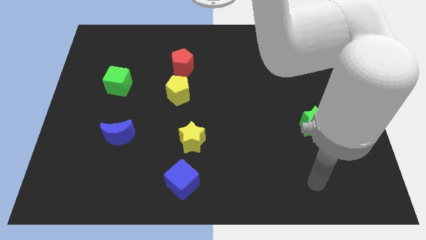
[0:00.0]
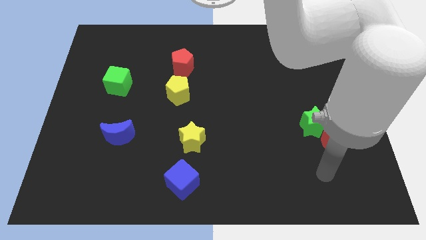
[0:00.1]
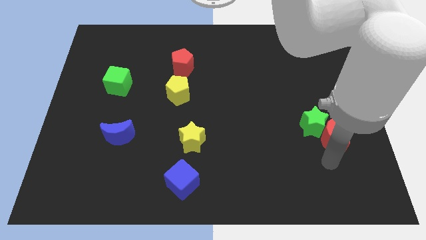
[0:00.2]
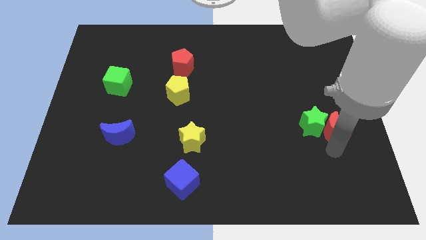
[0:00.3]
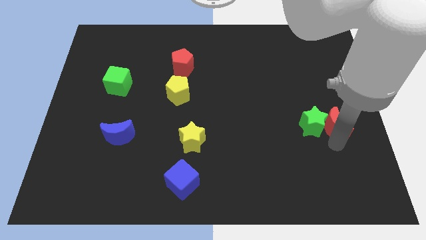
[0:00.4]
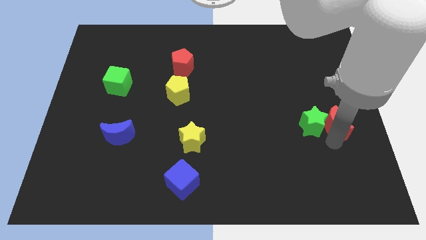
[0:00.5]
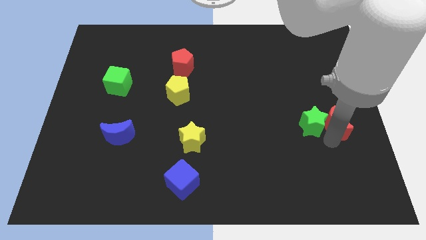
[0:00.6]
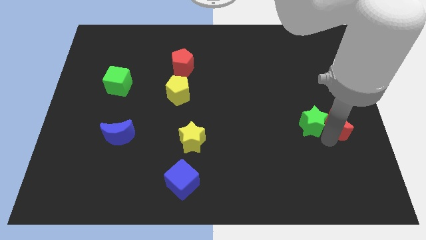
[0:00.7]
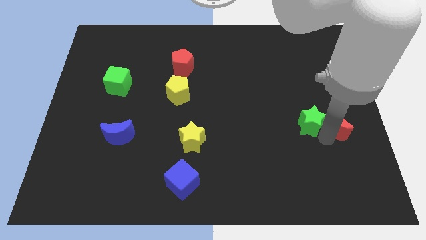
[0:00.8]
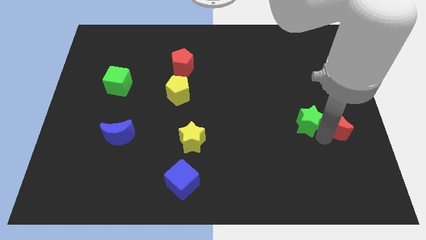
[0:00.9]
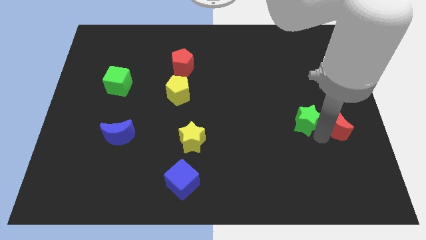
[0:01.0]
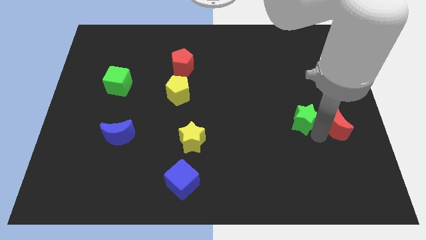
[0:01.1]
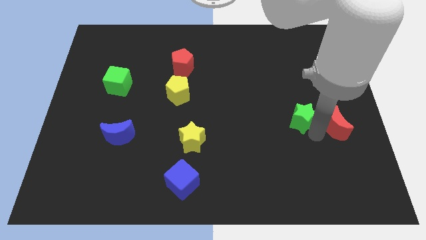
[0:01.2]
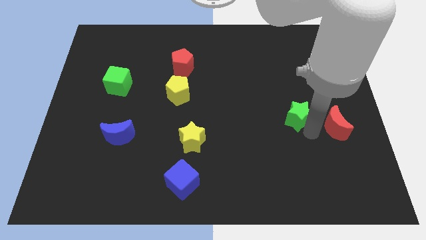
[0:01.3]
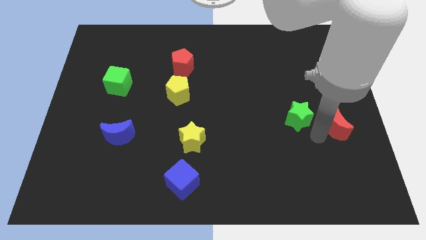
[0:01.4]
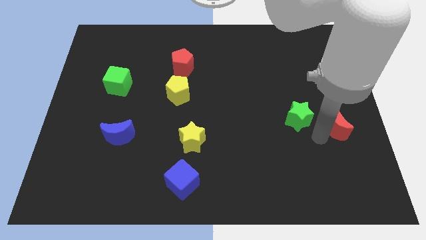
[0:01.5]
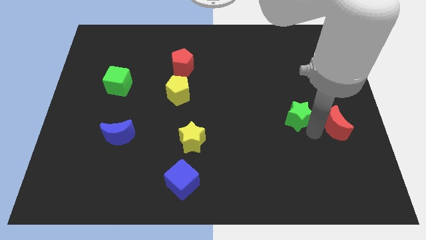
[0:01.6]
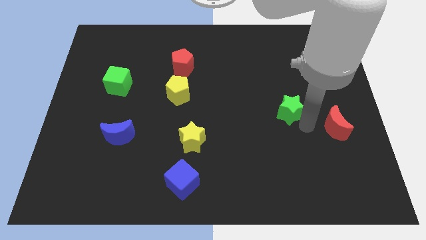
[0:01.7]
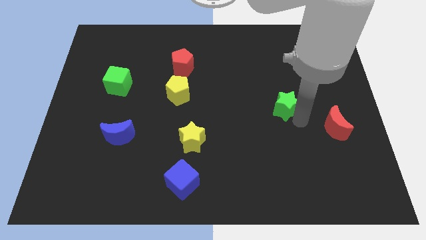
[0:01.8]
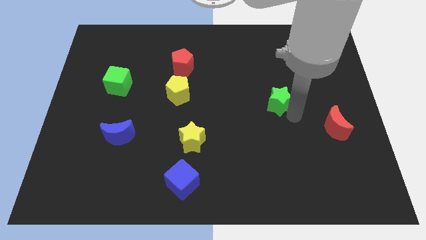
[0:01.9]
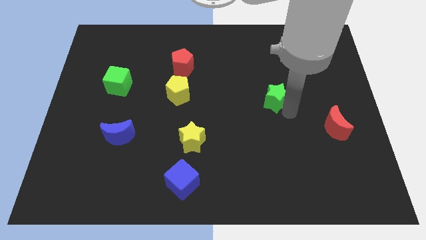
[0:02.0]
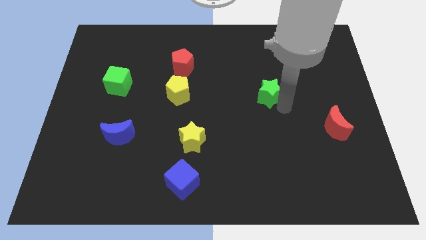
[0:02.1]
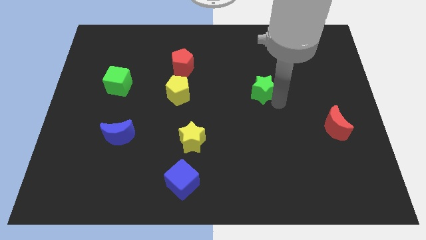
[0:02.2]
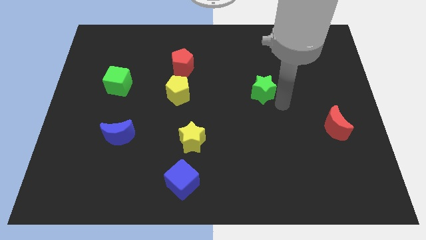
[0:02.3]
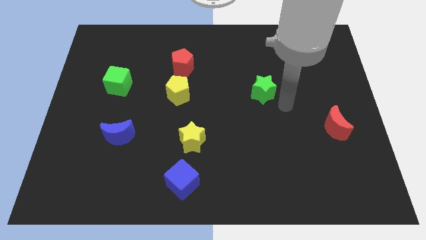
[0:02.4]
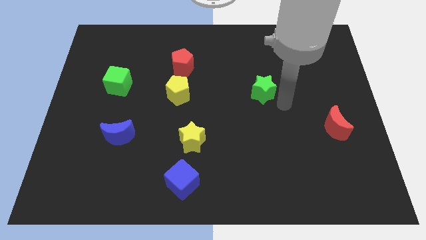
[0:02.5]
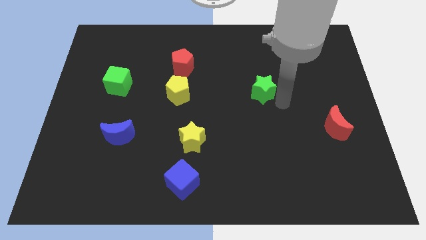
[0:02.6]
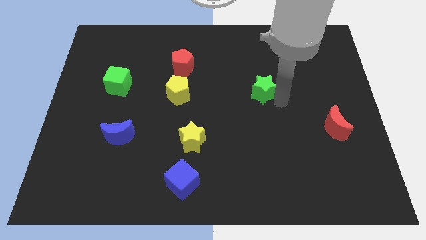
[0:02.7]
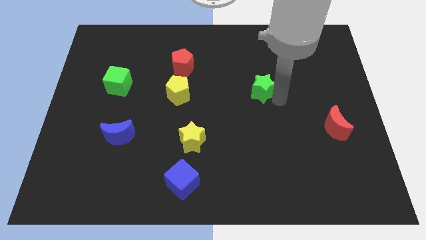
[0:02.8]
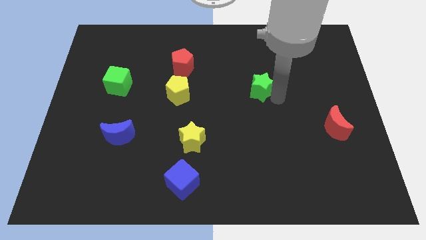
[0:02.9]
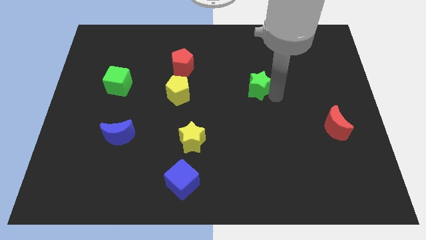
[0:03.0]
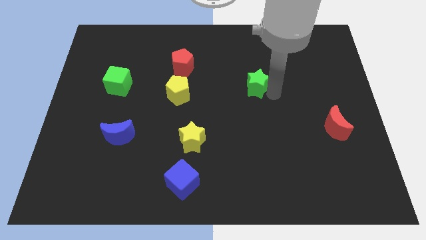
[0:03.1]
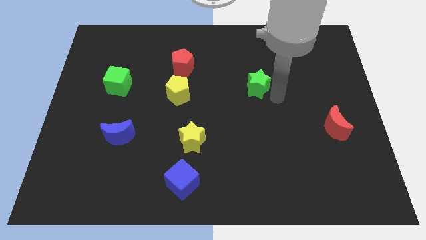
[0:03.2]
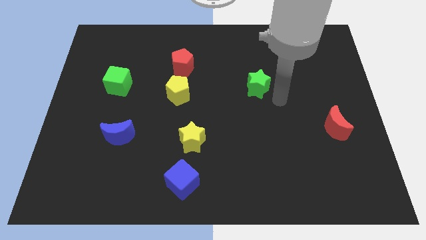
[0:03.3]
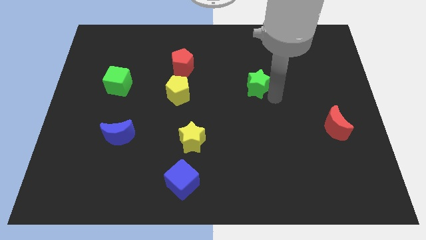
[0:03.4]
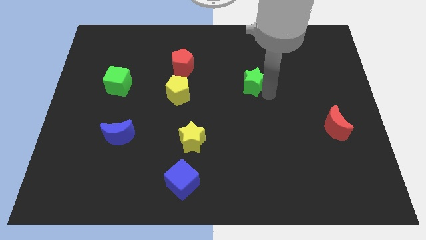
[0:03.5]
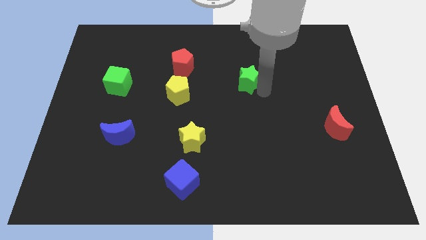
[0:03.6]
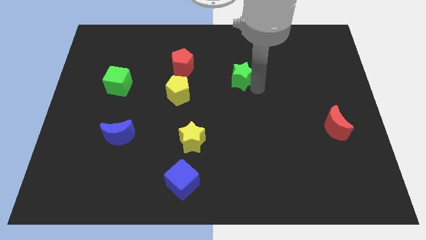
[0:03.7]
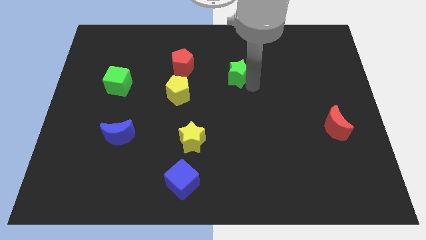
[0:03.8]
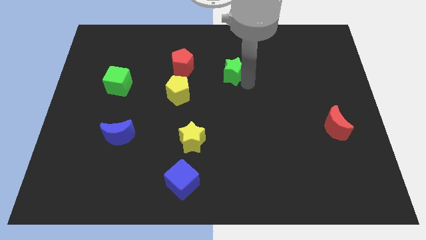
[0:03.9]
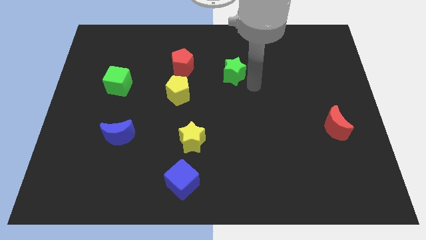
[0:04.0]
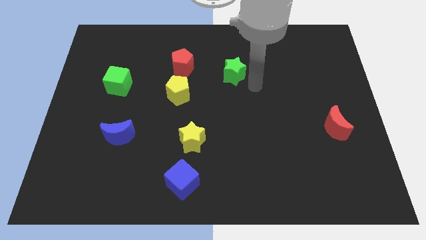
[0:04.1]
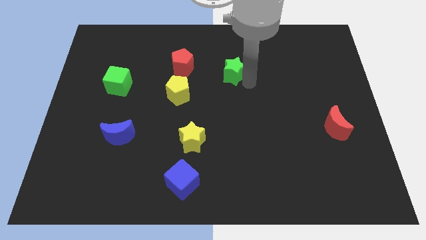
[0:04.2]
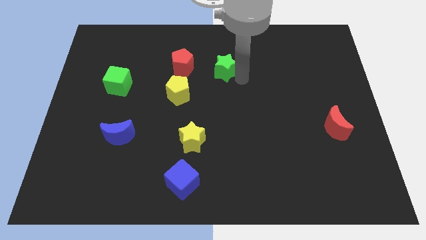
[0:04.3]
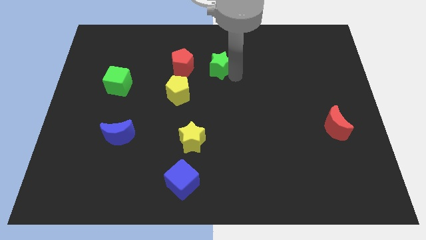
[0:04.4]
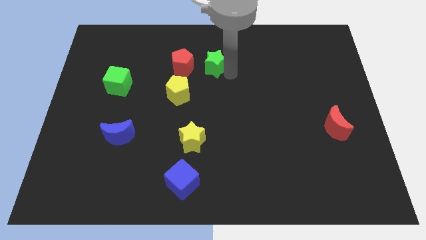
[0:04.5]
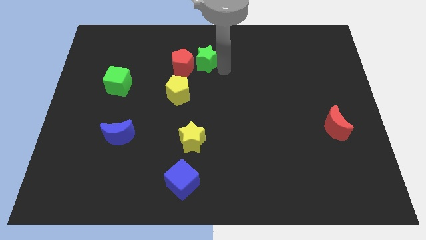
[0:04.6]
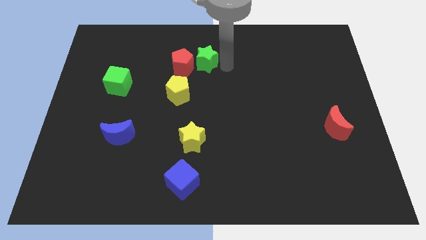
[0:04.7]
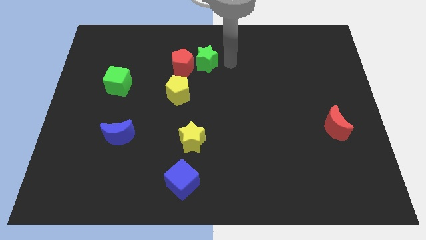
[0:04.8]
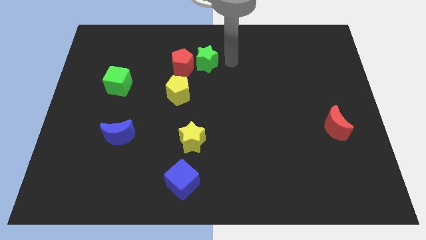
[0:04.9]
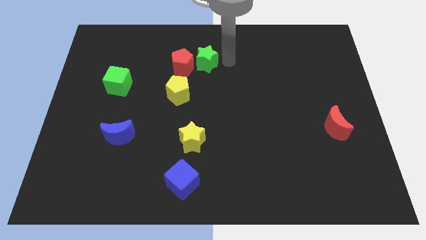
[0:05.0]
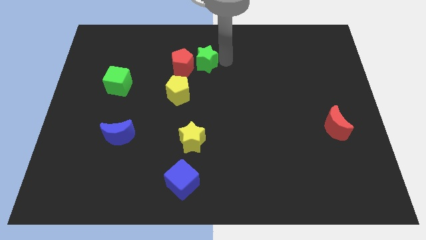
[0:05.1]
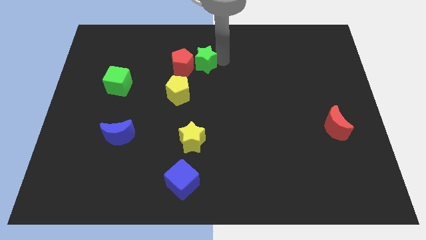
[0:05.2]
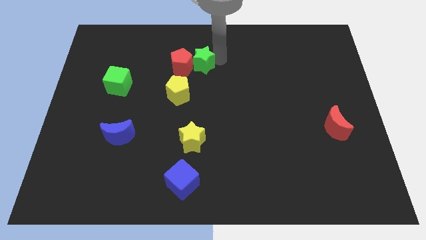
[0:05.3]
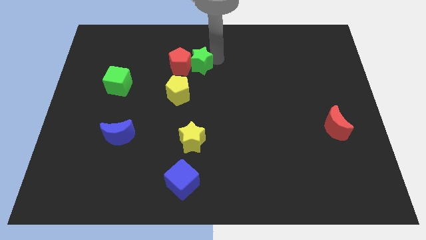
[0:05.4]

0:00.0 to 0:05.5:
push the green star to the top side of the yellow pentagon
